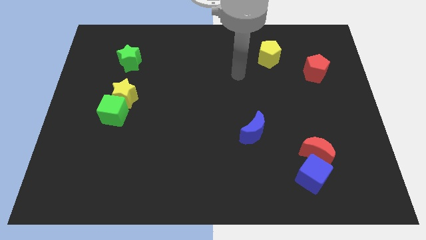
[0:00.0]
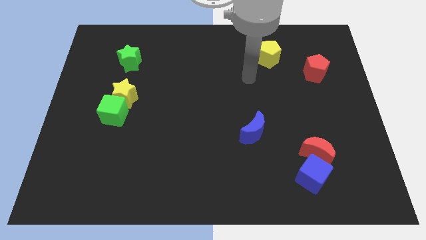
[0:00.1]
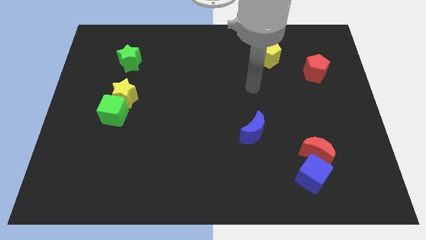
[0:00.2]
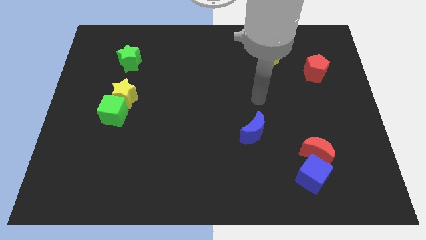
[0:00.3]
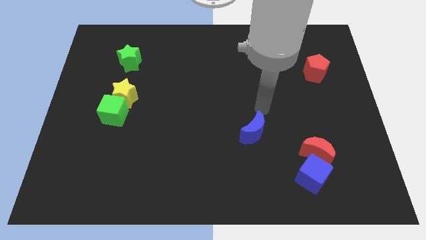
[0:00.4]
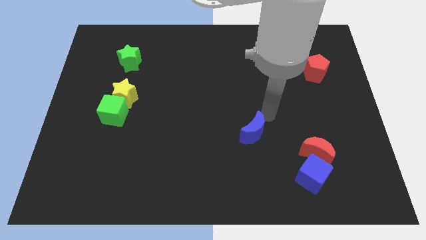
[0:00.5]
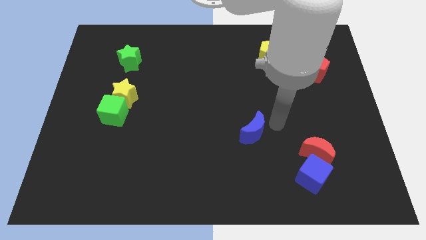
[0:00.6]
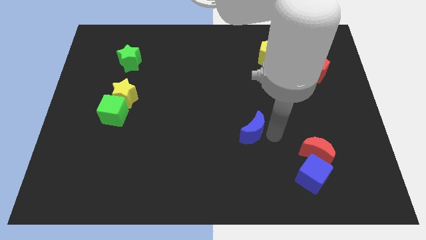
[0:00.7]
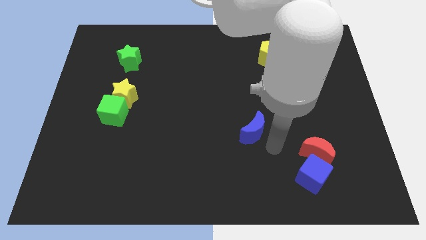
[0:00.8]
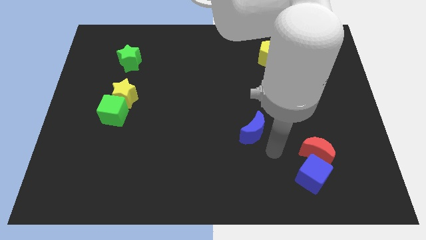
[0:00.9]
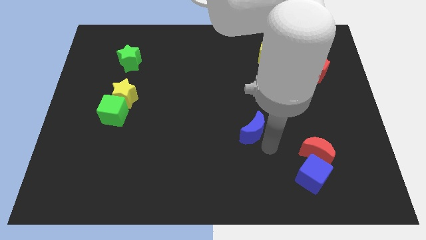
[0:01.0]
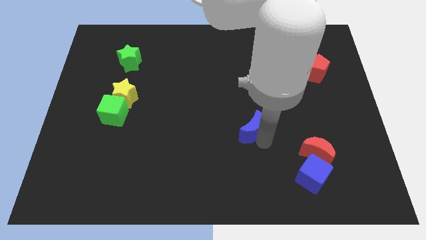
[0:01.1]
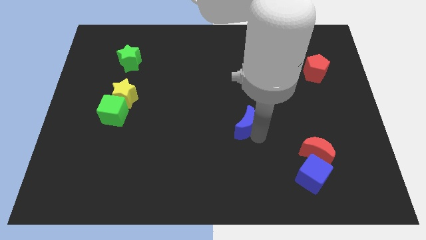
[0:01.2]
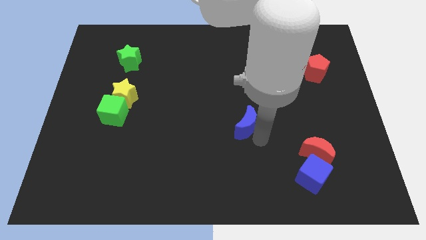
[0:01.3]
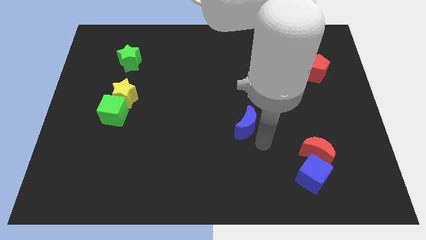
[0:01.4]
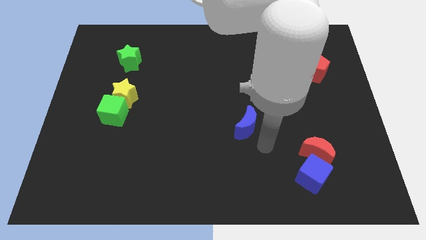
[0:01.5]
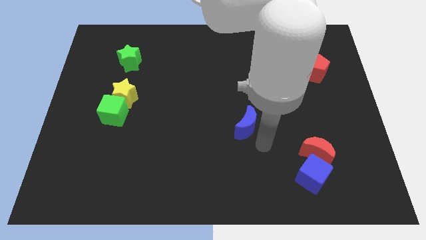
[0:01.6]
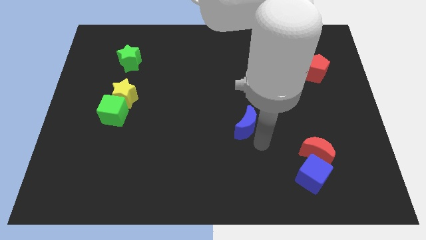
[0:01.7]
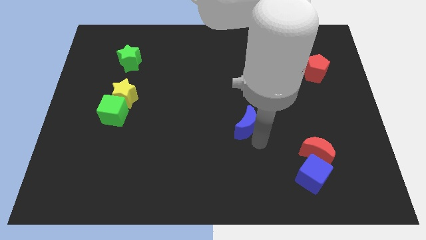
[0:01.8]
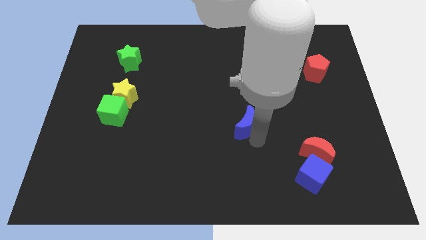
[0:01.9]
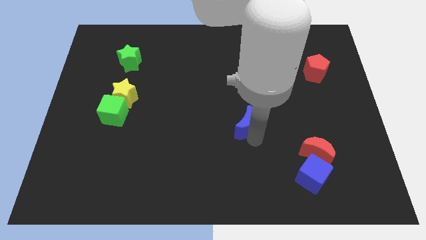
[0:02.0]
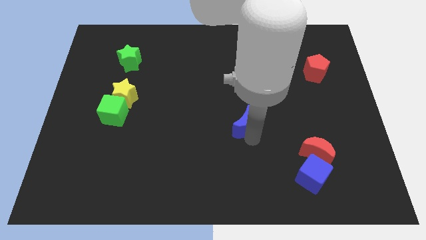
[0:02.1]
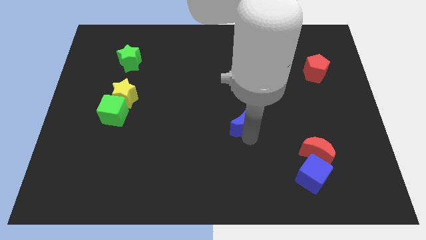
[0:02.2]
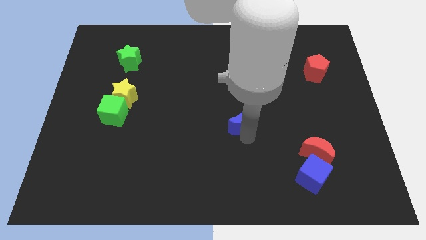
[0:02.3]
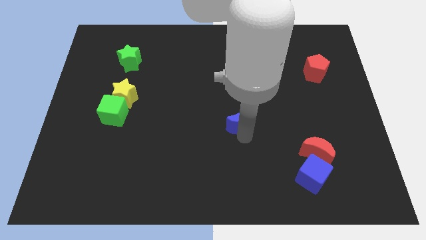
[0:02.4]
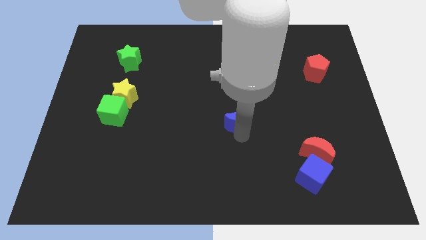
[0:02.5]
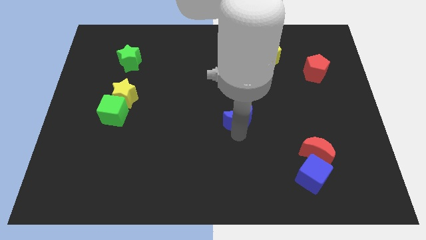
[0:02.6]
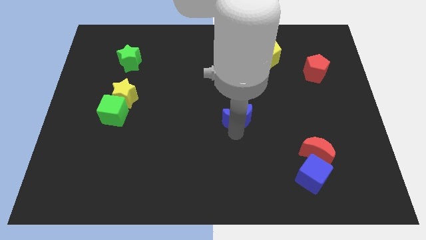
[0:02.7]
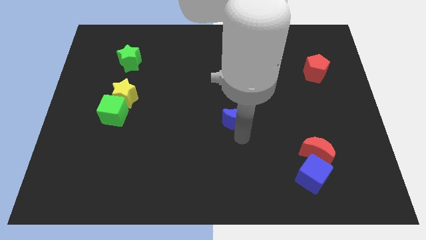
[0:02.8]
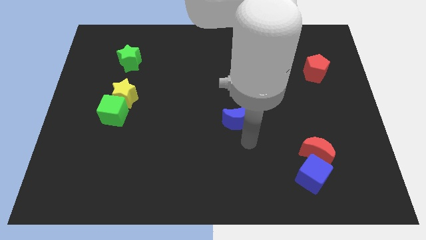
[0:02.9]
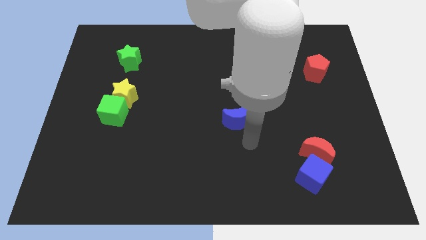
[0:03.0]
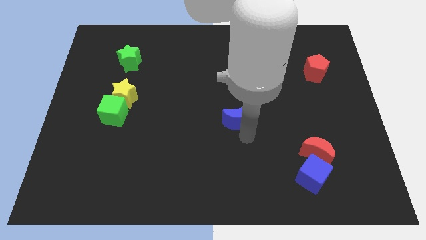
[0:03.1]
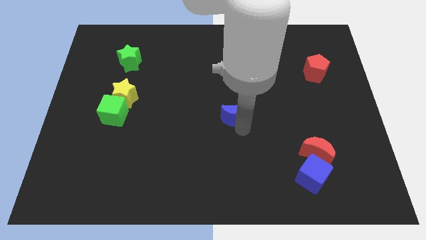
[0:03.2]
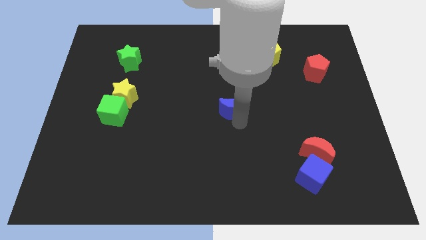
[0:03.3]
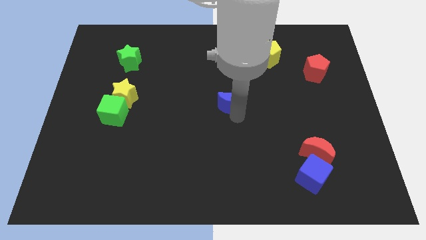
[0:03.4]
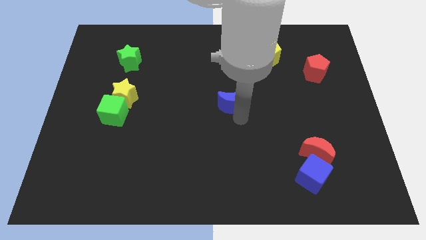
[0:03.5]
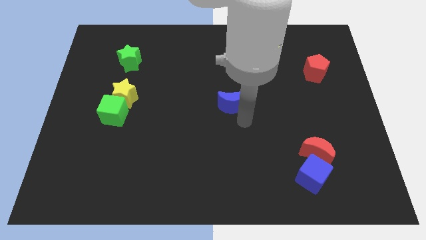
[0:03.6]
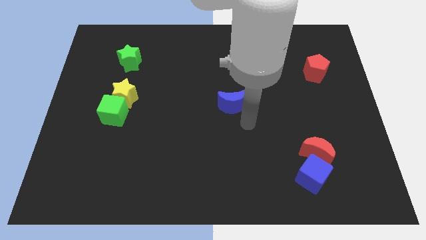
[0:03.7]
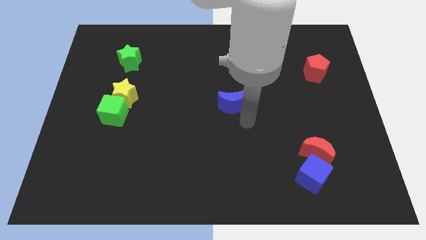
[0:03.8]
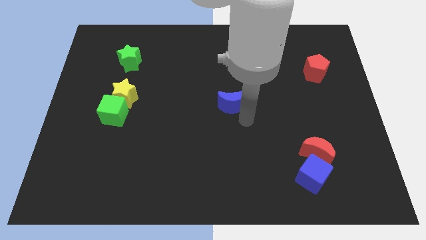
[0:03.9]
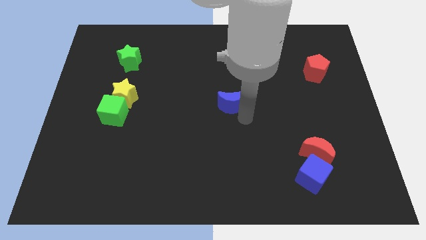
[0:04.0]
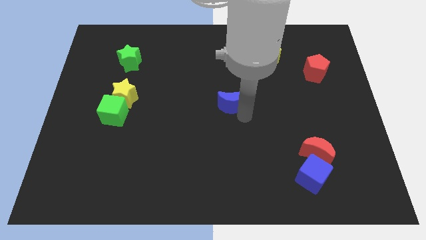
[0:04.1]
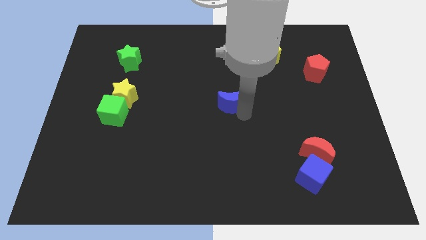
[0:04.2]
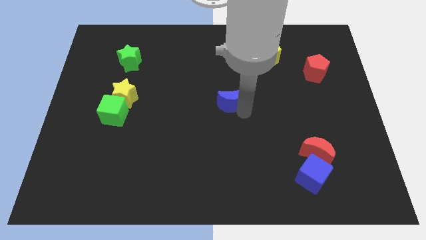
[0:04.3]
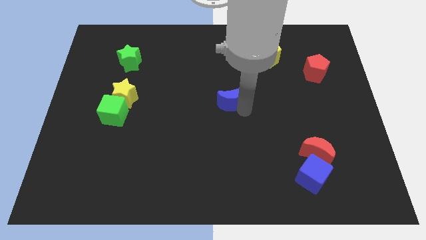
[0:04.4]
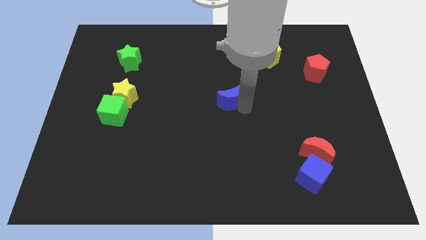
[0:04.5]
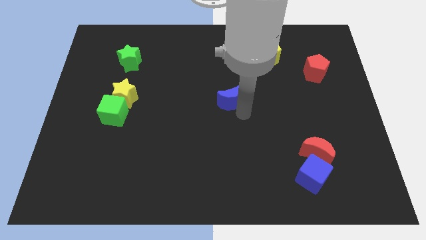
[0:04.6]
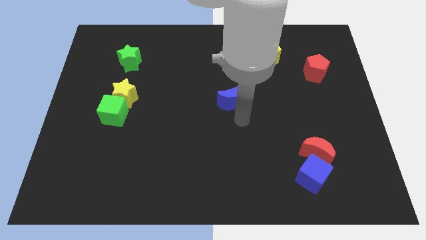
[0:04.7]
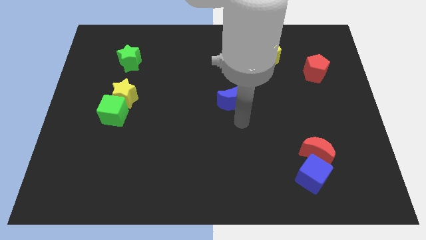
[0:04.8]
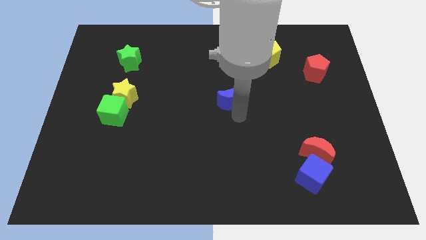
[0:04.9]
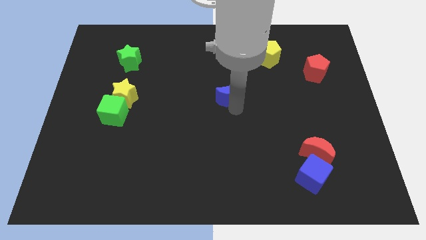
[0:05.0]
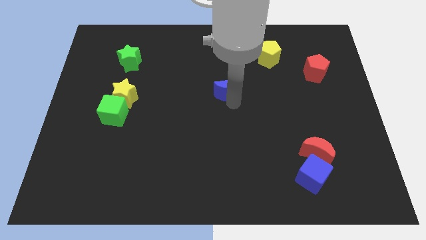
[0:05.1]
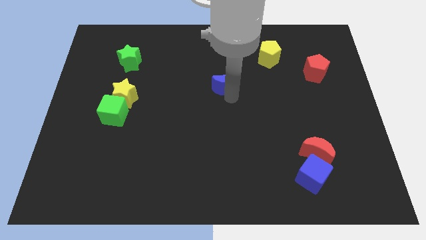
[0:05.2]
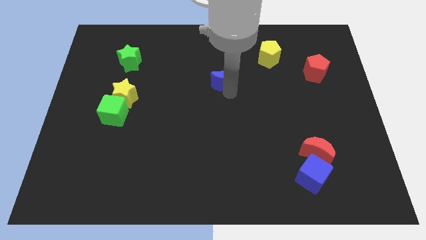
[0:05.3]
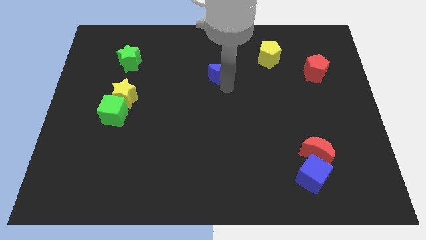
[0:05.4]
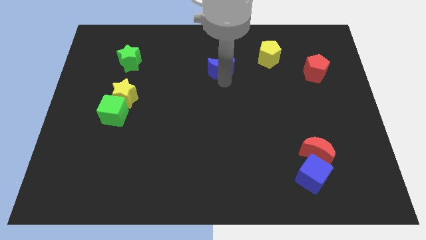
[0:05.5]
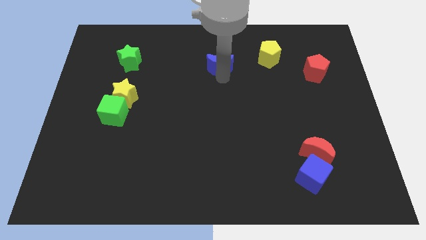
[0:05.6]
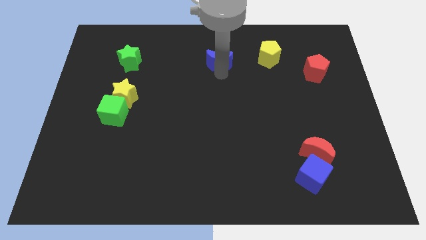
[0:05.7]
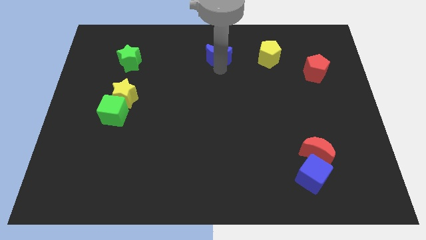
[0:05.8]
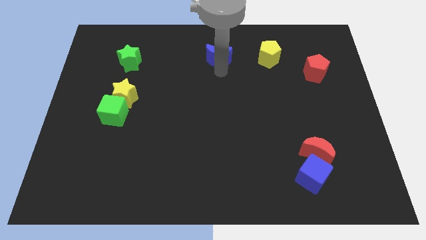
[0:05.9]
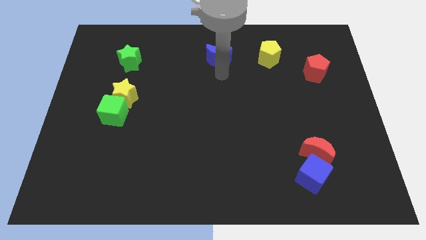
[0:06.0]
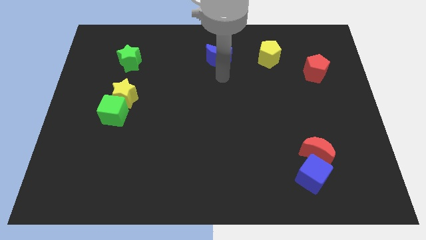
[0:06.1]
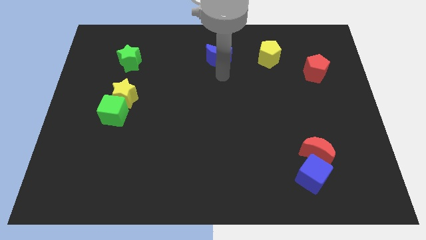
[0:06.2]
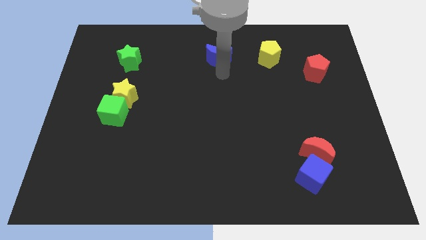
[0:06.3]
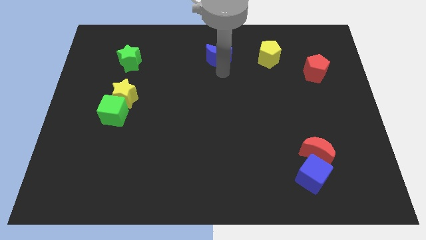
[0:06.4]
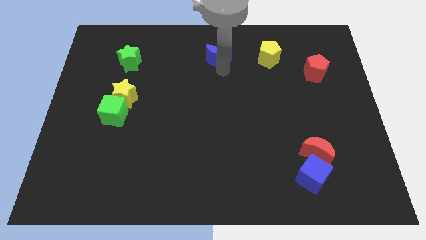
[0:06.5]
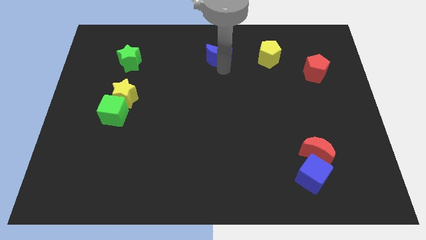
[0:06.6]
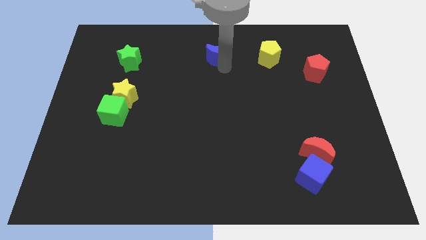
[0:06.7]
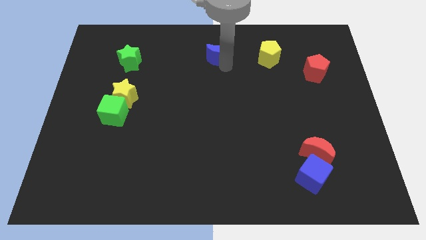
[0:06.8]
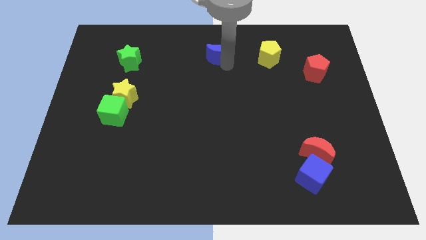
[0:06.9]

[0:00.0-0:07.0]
push the blue moon to the towards your base
